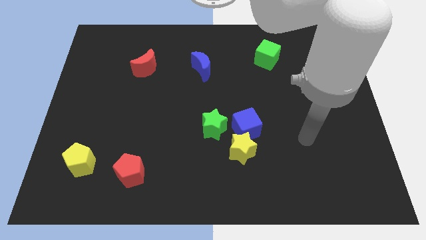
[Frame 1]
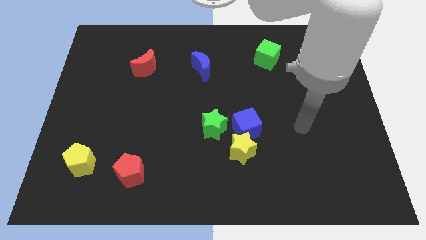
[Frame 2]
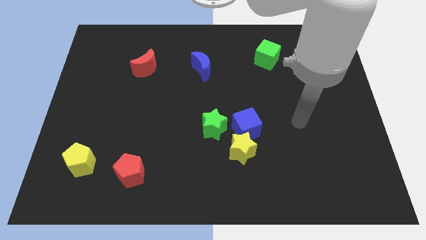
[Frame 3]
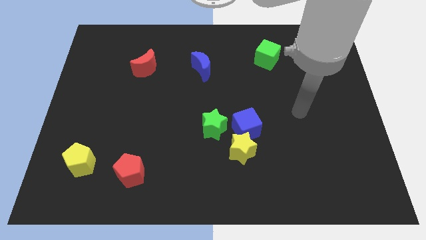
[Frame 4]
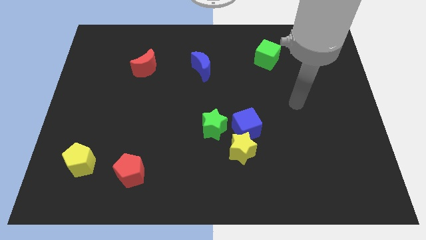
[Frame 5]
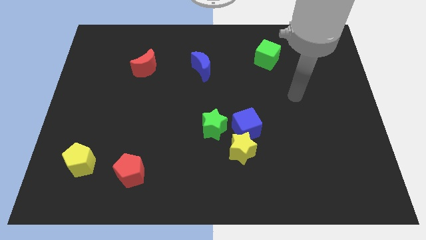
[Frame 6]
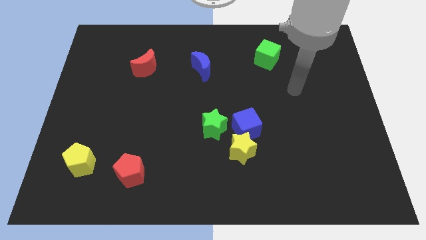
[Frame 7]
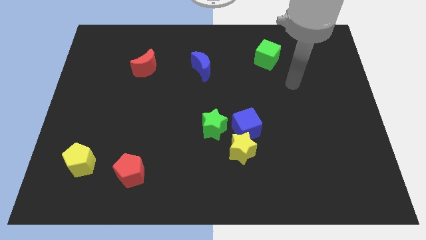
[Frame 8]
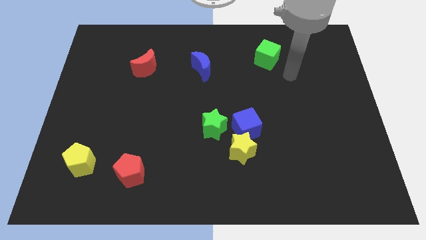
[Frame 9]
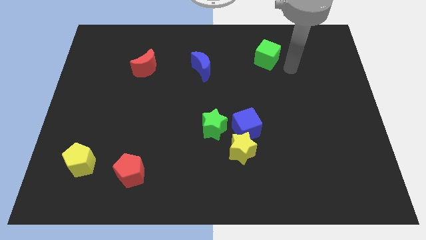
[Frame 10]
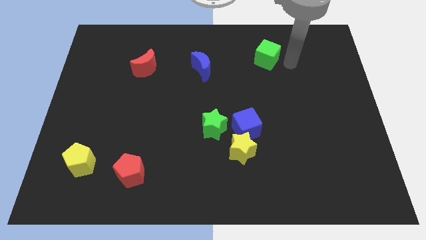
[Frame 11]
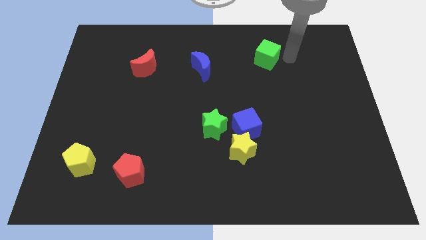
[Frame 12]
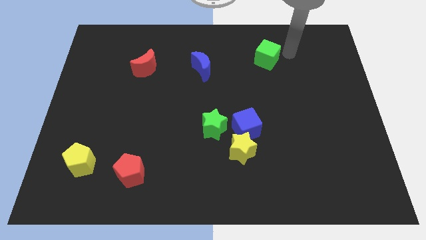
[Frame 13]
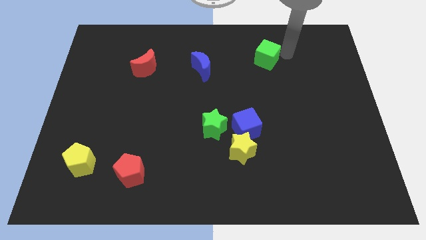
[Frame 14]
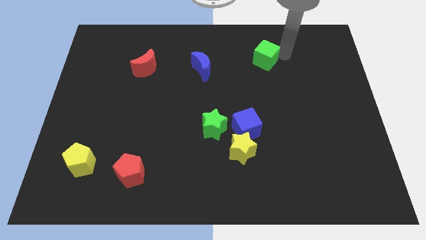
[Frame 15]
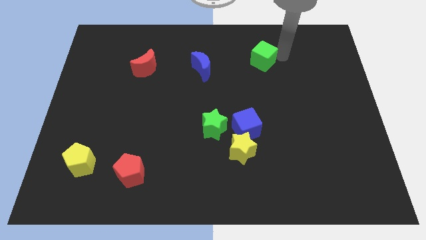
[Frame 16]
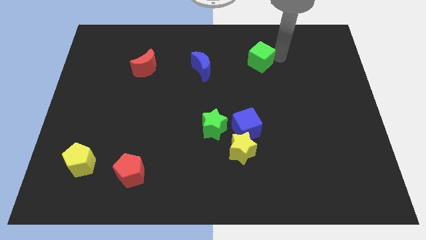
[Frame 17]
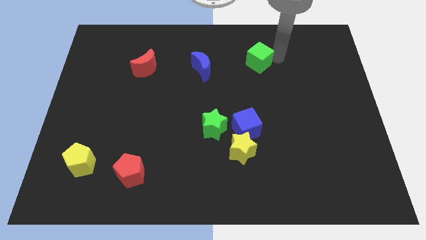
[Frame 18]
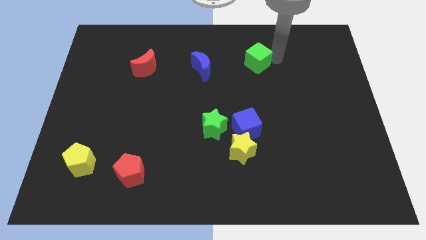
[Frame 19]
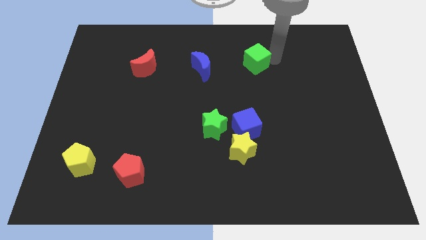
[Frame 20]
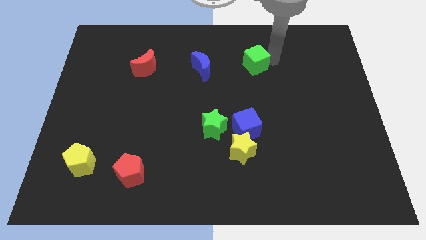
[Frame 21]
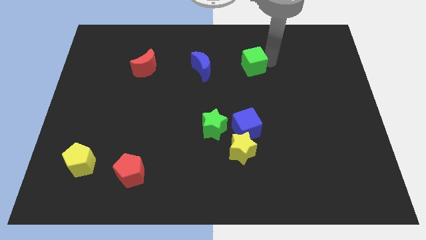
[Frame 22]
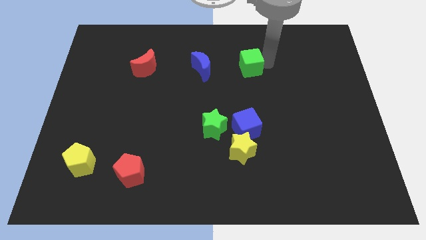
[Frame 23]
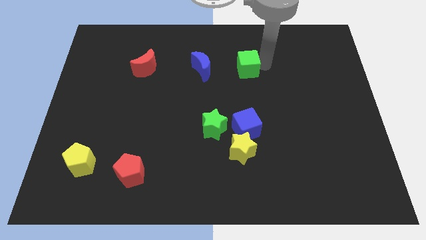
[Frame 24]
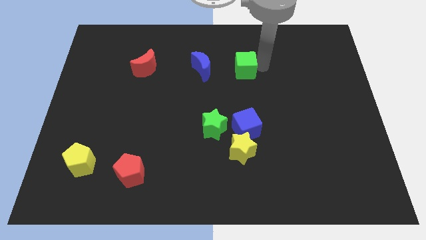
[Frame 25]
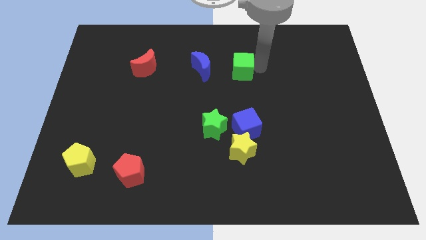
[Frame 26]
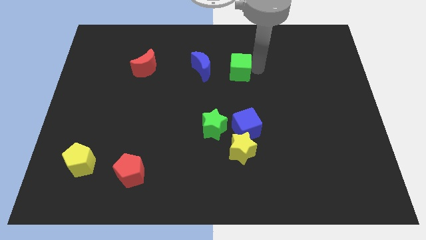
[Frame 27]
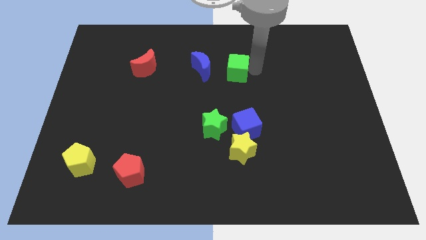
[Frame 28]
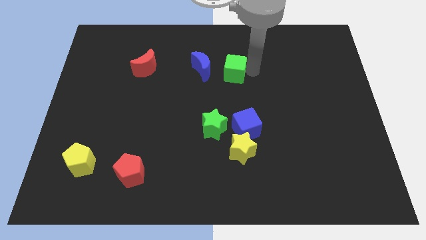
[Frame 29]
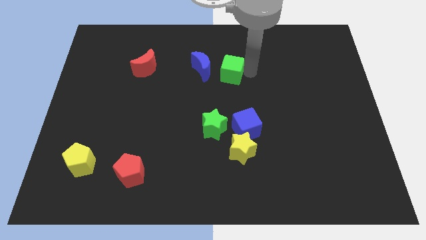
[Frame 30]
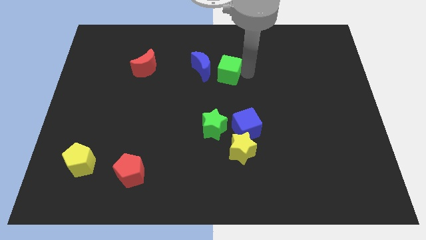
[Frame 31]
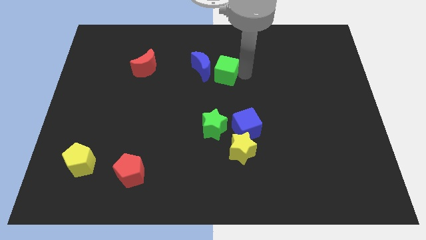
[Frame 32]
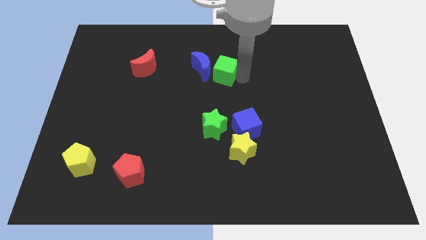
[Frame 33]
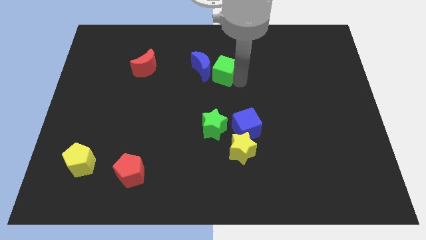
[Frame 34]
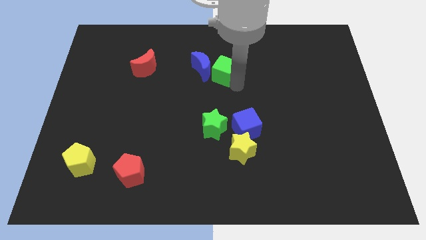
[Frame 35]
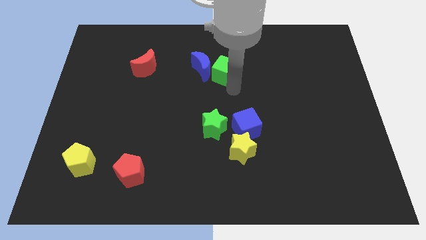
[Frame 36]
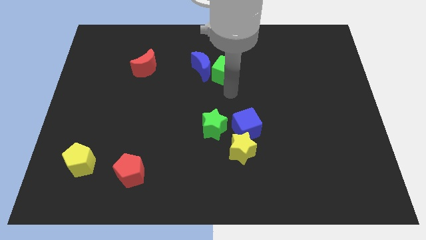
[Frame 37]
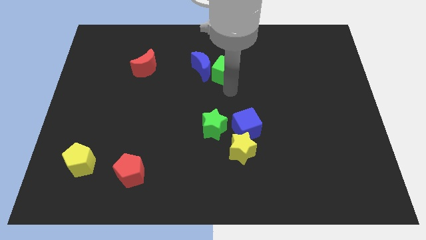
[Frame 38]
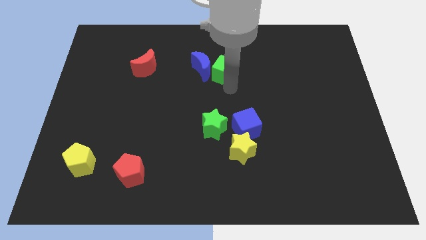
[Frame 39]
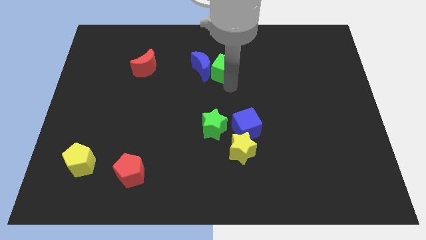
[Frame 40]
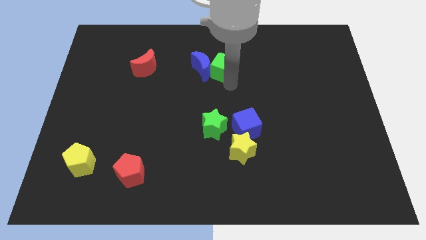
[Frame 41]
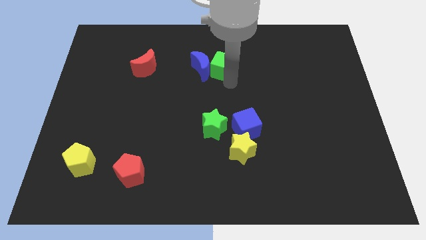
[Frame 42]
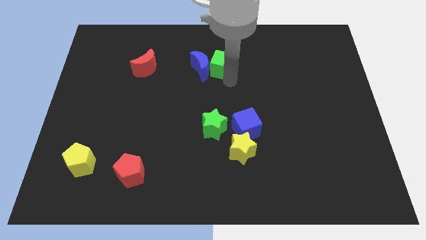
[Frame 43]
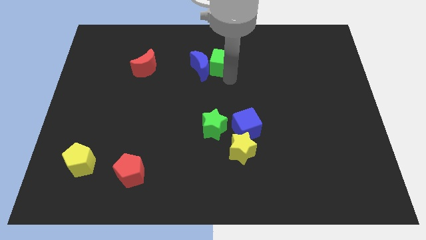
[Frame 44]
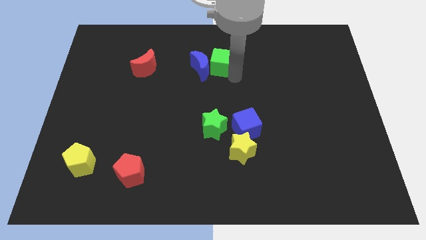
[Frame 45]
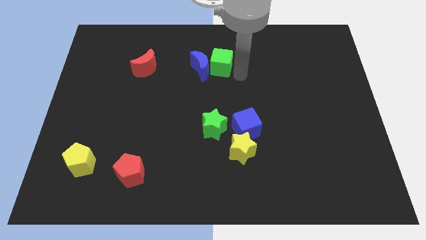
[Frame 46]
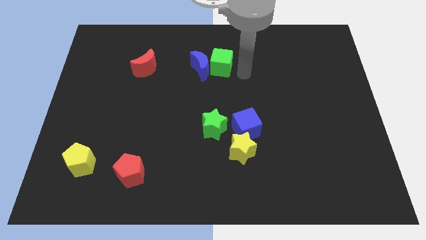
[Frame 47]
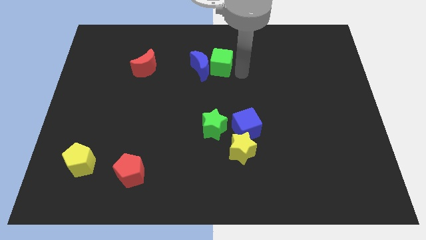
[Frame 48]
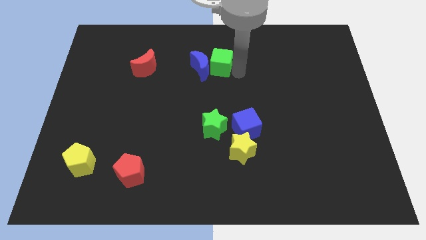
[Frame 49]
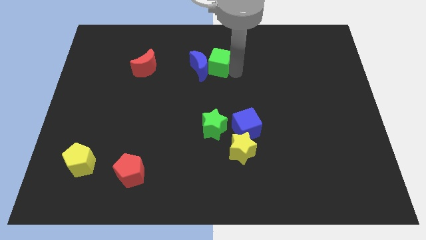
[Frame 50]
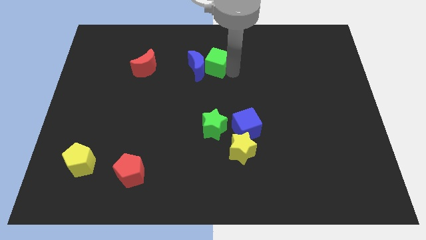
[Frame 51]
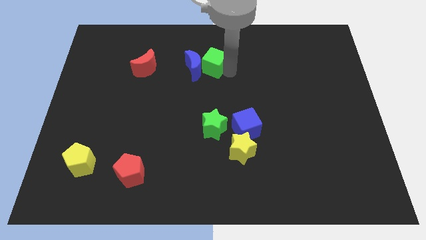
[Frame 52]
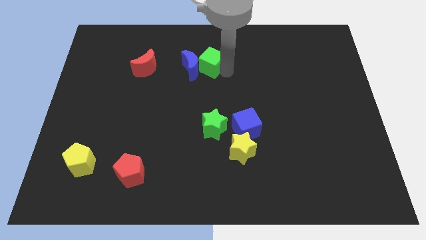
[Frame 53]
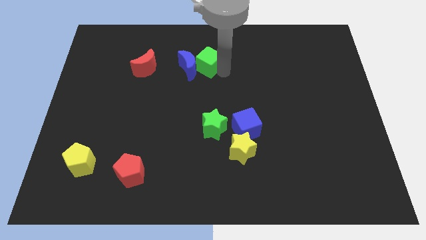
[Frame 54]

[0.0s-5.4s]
put the green cube just right of the red moon

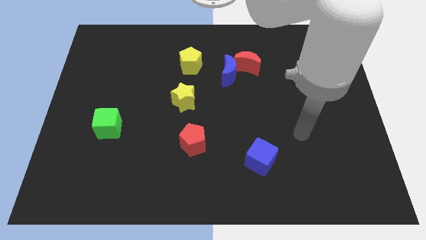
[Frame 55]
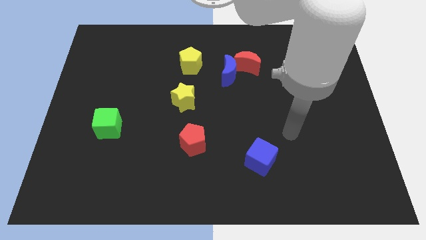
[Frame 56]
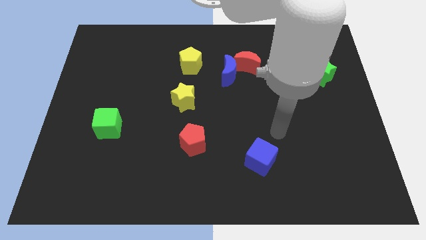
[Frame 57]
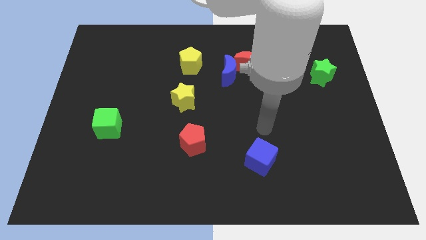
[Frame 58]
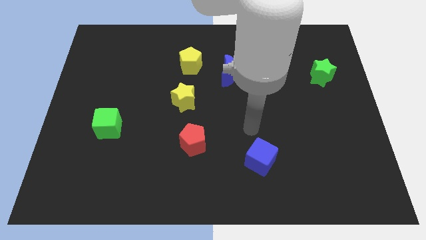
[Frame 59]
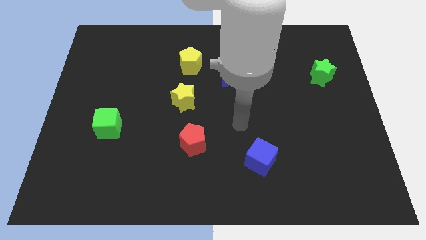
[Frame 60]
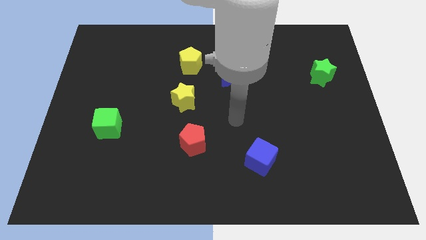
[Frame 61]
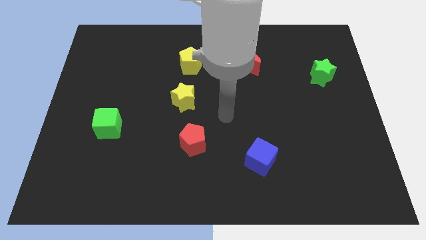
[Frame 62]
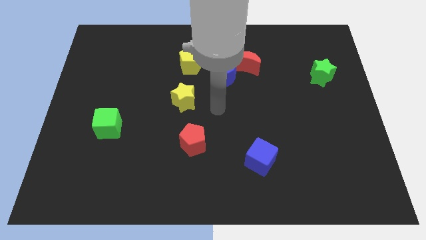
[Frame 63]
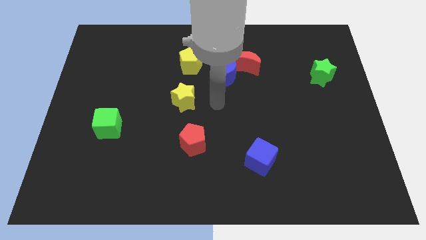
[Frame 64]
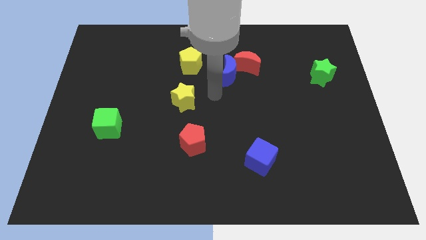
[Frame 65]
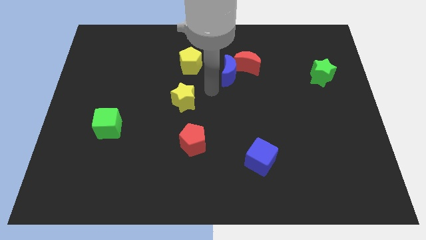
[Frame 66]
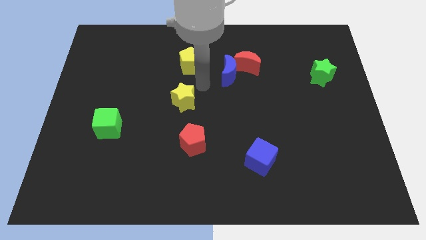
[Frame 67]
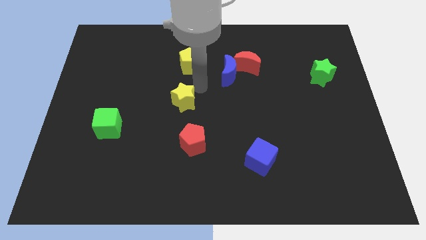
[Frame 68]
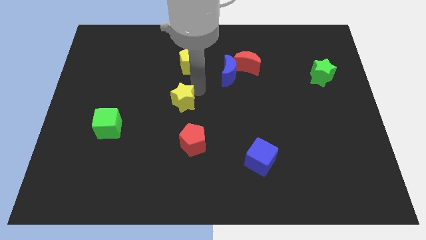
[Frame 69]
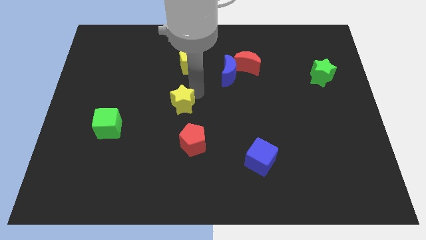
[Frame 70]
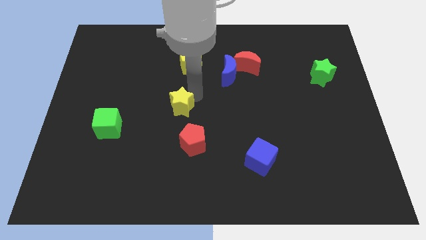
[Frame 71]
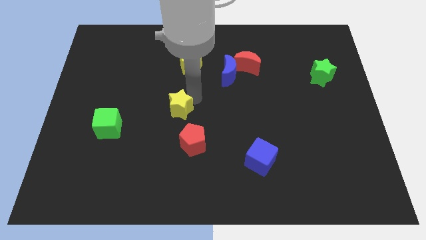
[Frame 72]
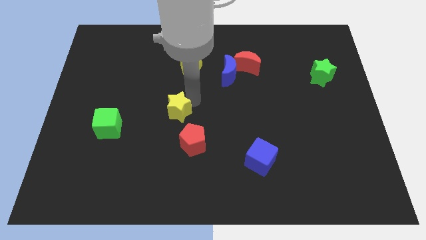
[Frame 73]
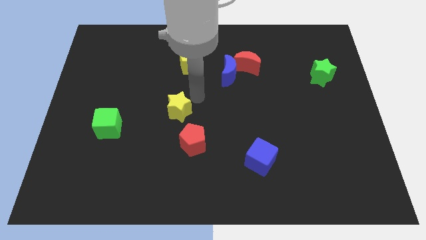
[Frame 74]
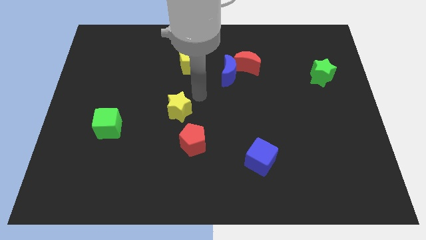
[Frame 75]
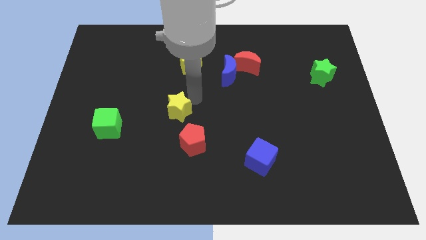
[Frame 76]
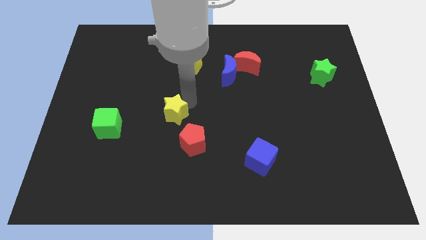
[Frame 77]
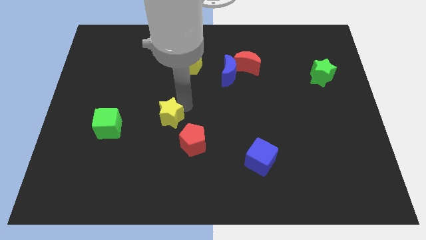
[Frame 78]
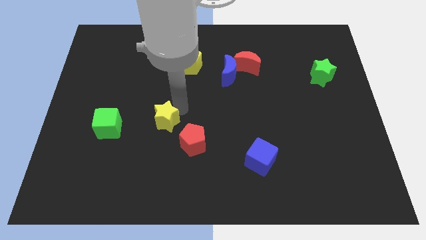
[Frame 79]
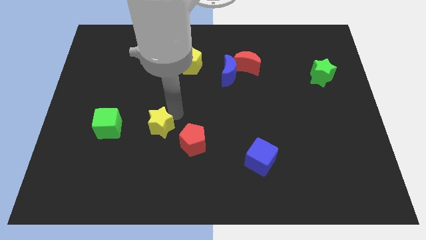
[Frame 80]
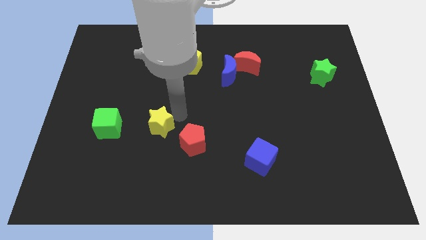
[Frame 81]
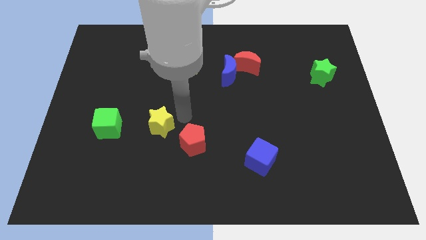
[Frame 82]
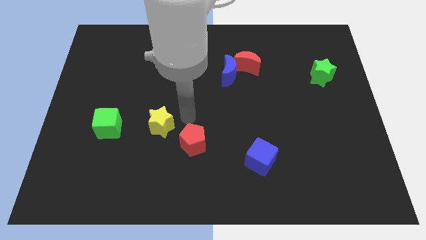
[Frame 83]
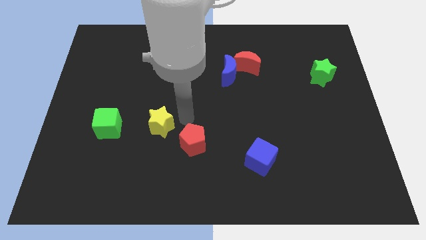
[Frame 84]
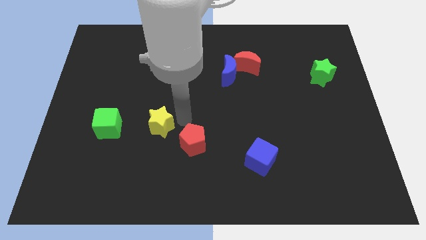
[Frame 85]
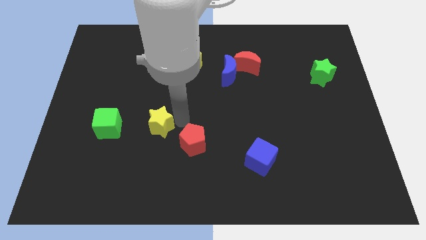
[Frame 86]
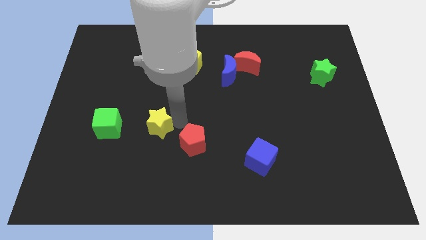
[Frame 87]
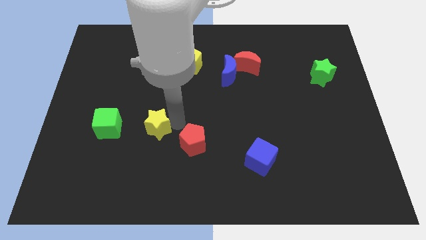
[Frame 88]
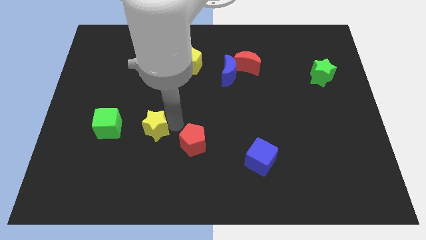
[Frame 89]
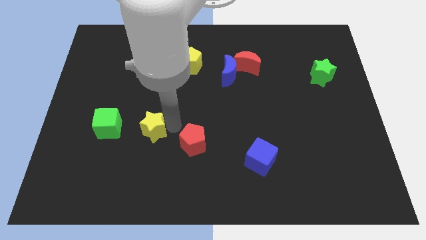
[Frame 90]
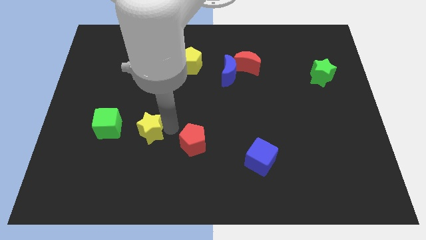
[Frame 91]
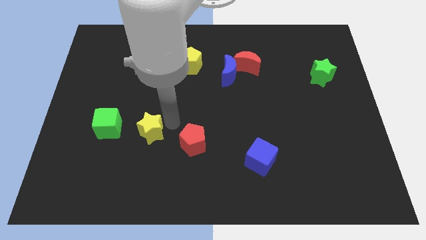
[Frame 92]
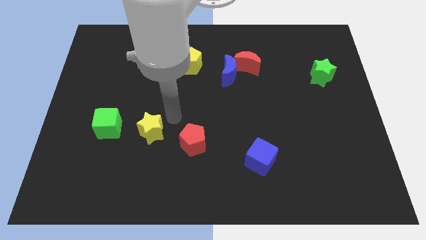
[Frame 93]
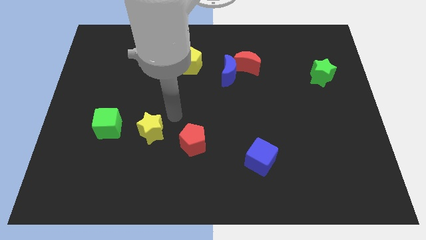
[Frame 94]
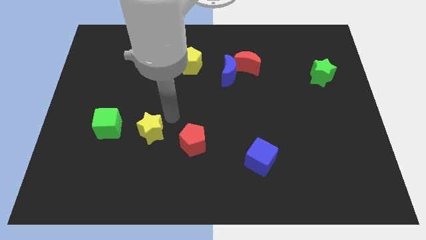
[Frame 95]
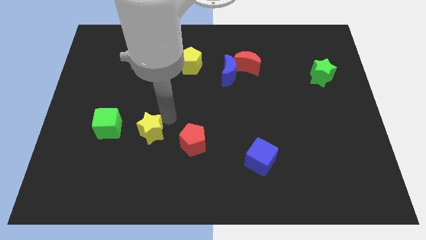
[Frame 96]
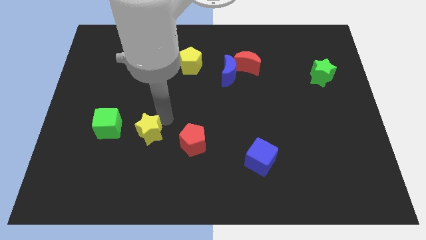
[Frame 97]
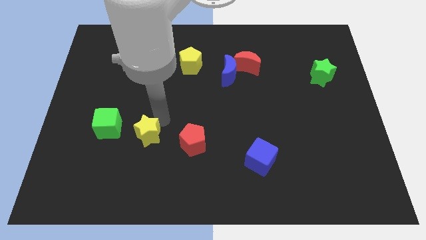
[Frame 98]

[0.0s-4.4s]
push the yellow star to the bottom right of the green cube
